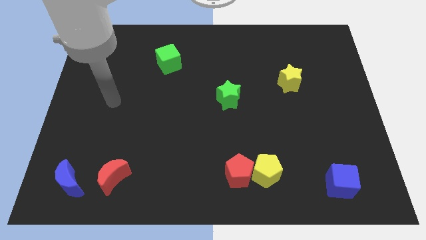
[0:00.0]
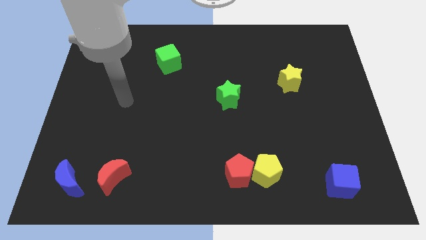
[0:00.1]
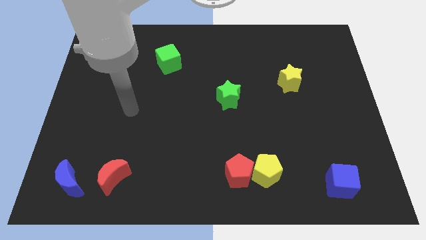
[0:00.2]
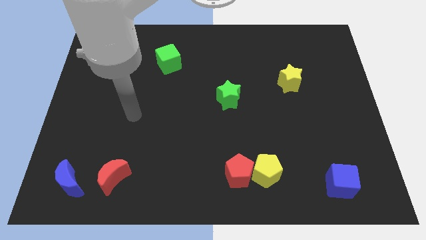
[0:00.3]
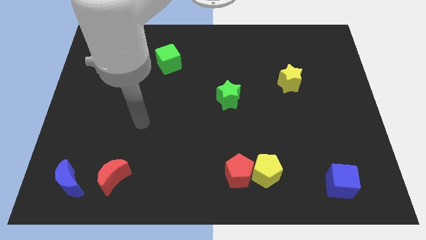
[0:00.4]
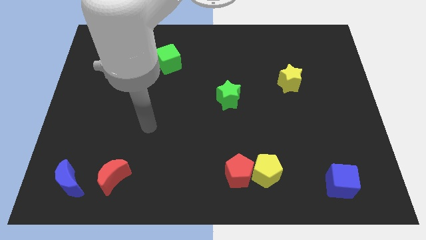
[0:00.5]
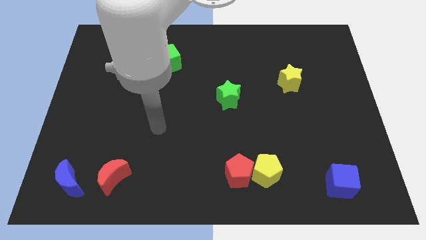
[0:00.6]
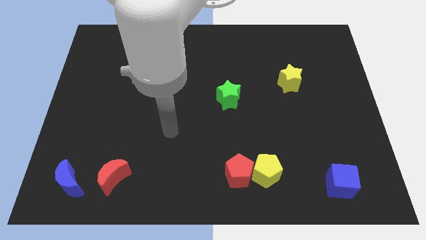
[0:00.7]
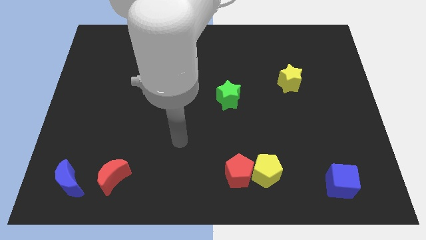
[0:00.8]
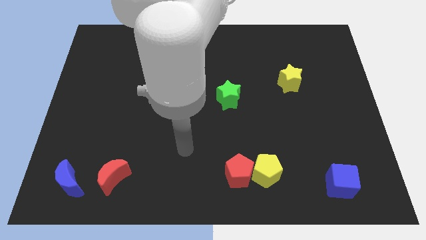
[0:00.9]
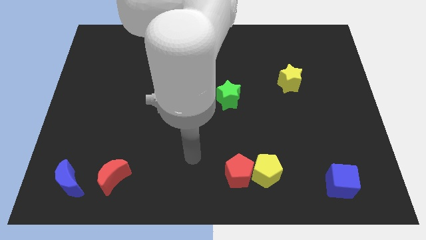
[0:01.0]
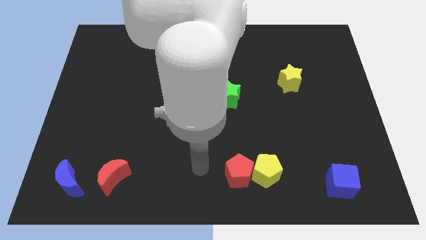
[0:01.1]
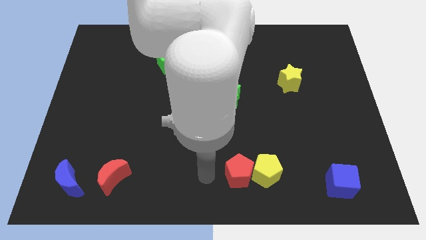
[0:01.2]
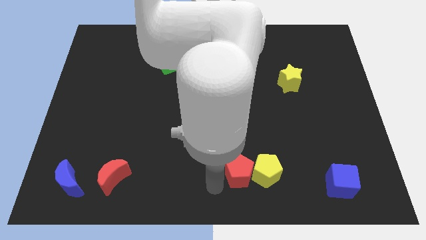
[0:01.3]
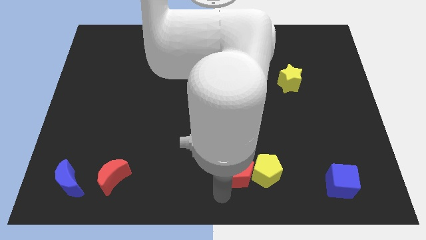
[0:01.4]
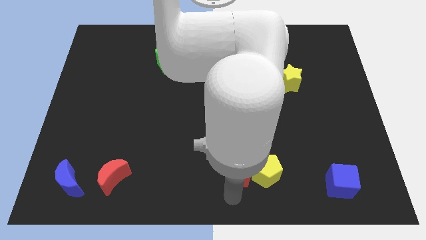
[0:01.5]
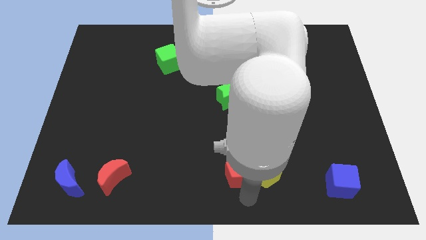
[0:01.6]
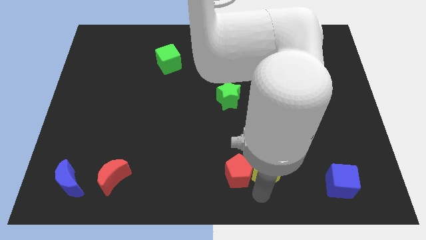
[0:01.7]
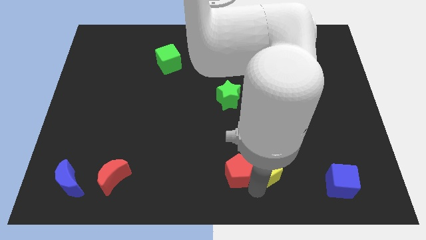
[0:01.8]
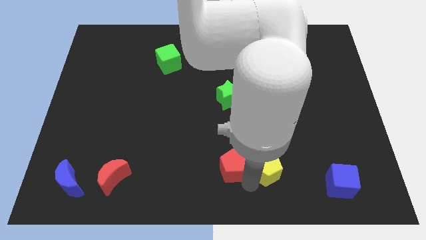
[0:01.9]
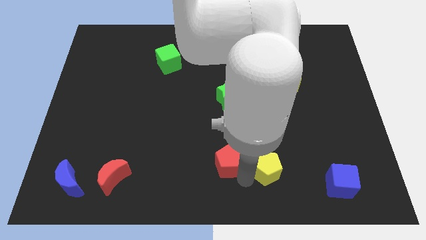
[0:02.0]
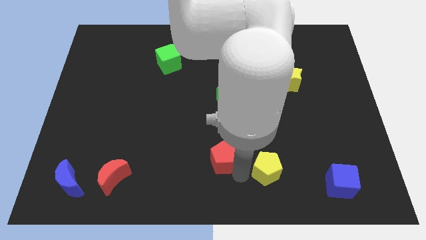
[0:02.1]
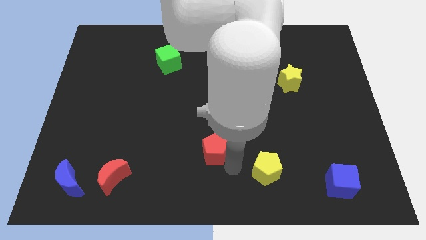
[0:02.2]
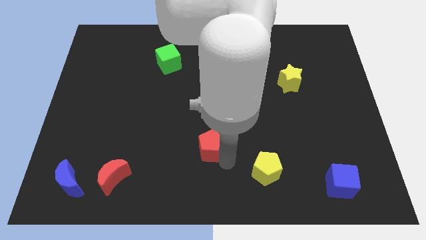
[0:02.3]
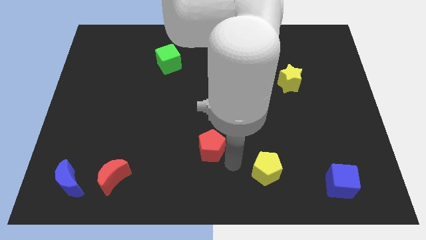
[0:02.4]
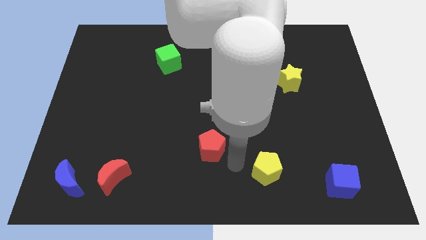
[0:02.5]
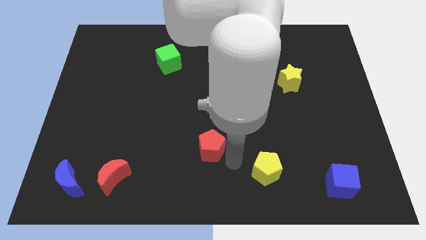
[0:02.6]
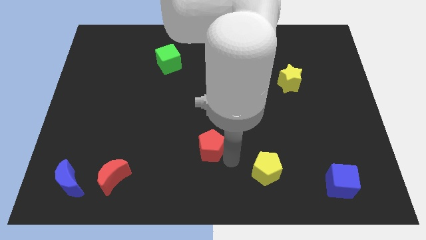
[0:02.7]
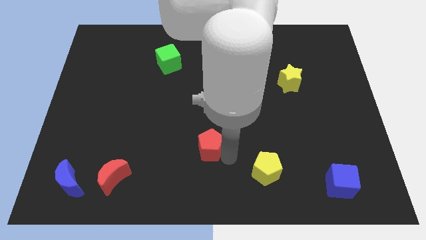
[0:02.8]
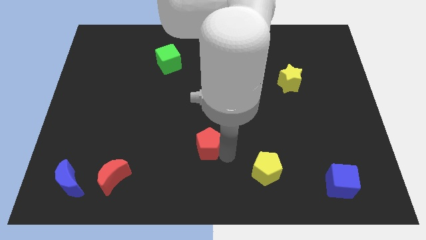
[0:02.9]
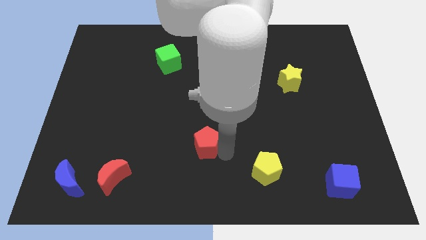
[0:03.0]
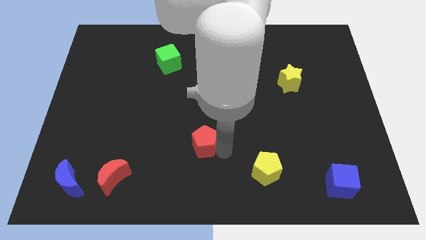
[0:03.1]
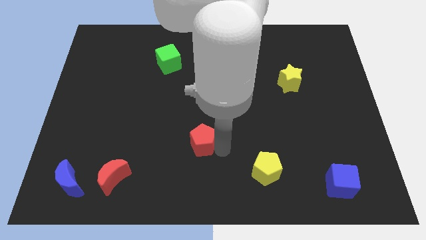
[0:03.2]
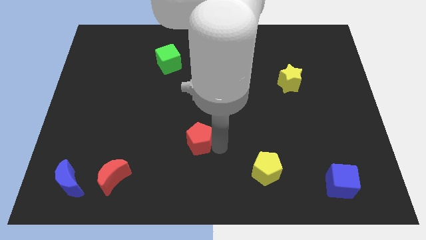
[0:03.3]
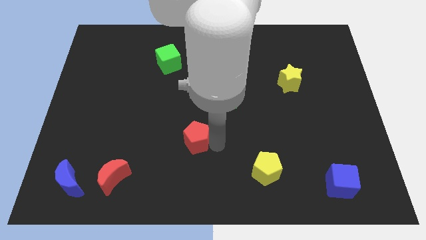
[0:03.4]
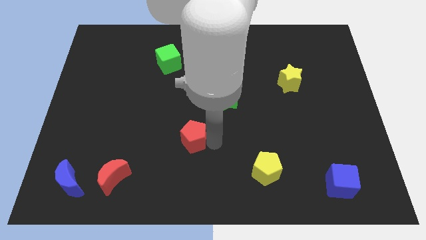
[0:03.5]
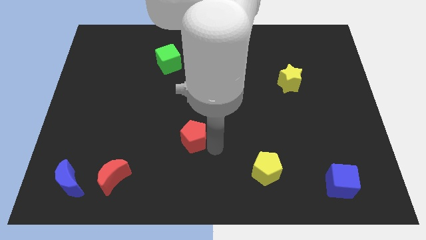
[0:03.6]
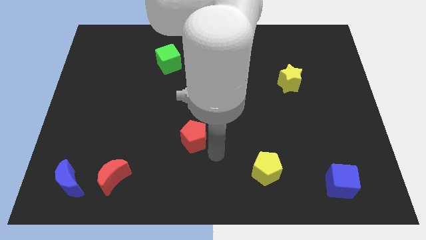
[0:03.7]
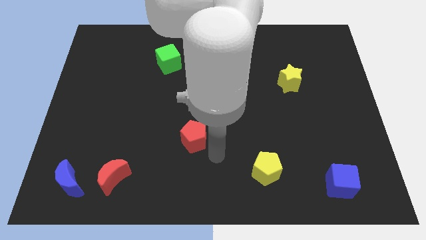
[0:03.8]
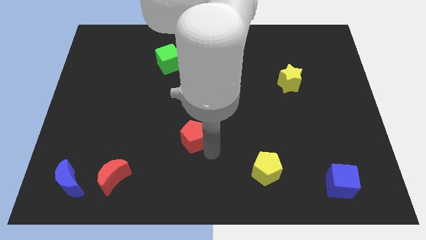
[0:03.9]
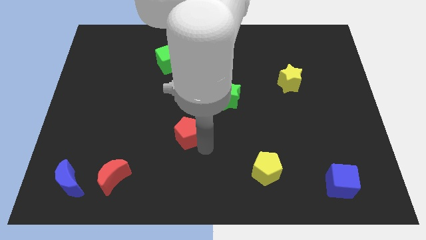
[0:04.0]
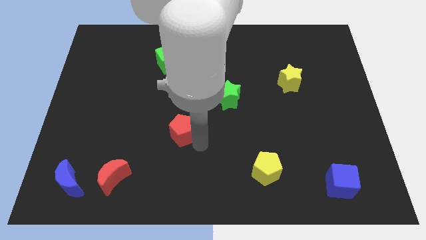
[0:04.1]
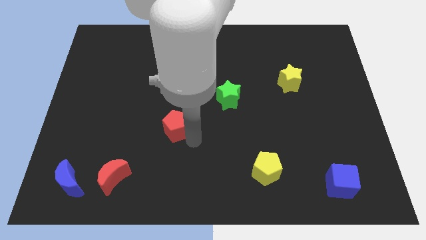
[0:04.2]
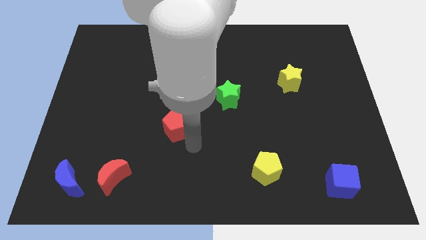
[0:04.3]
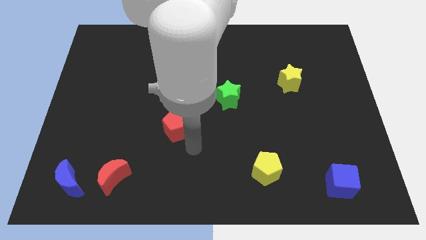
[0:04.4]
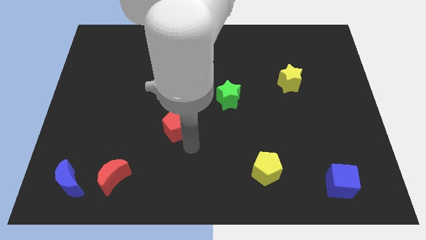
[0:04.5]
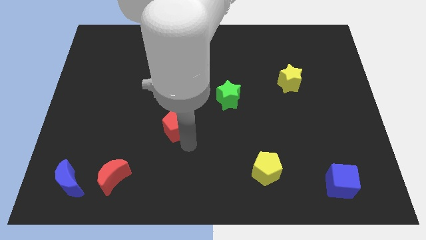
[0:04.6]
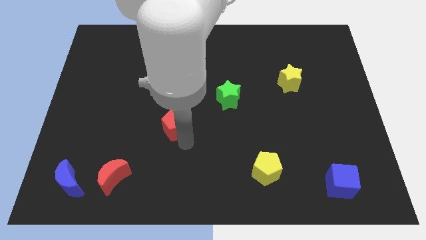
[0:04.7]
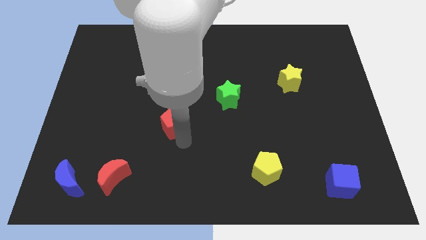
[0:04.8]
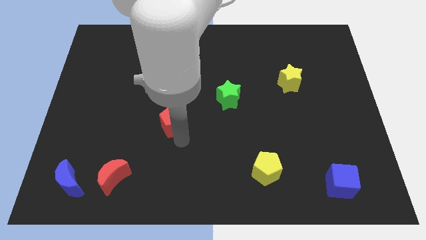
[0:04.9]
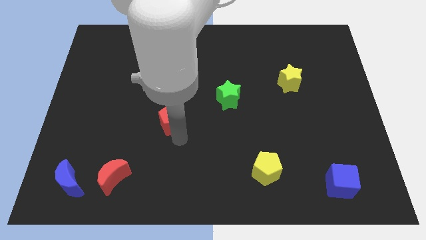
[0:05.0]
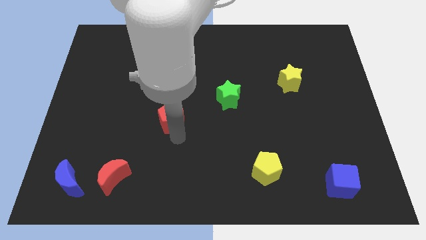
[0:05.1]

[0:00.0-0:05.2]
move the red pentagon up and left

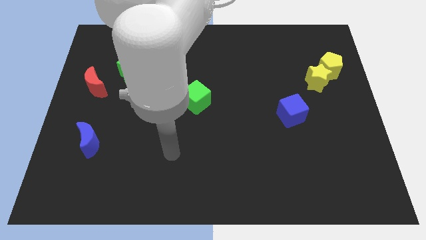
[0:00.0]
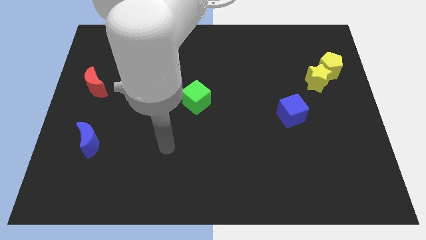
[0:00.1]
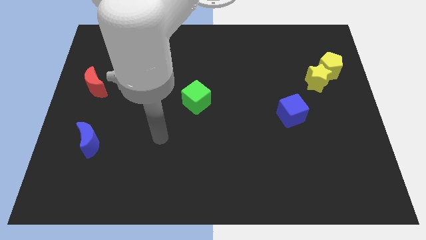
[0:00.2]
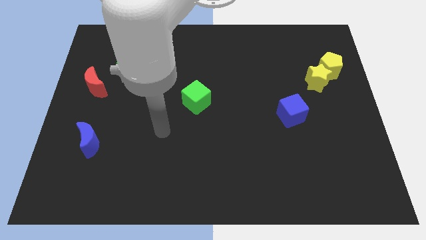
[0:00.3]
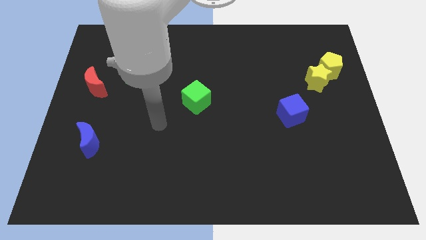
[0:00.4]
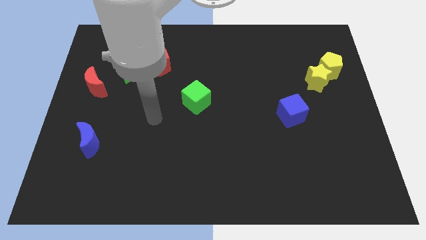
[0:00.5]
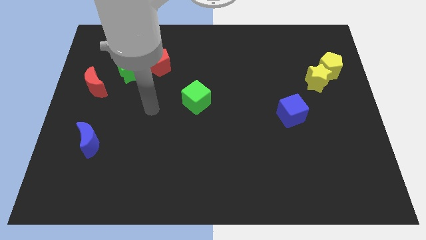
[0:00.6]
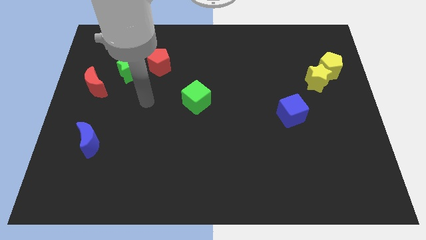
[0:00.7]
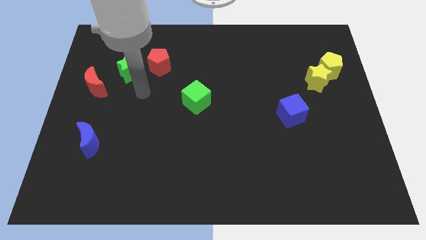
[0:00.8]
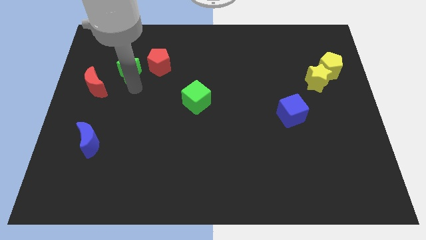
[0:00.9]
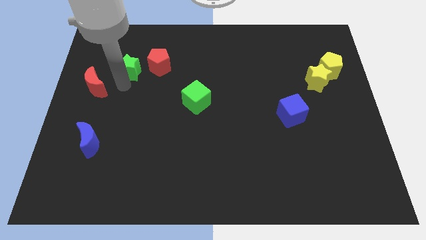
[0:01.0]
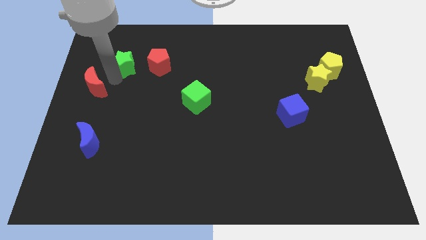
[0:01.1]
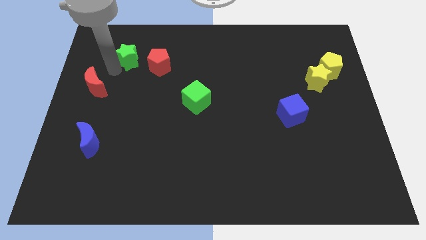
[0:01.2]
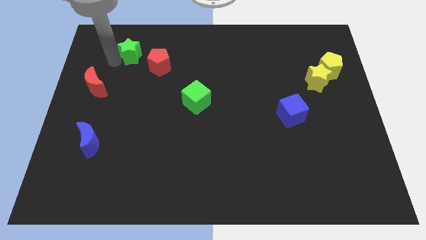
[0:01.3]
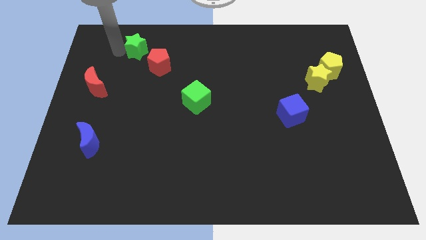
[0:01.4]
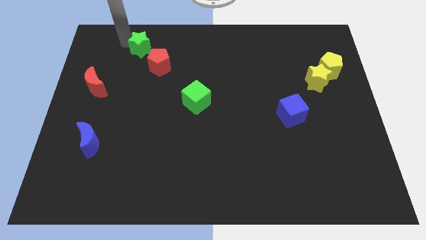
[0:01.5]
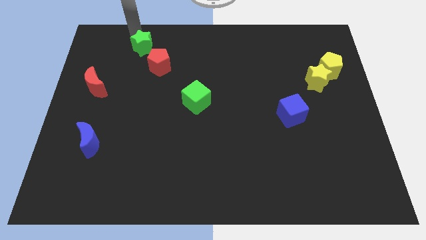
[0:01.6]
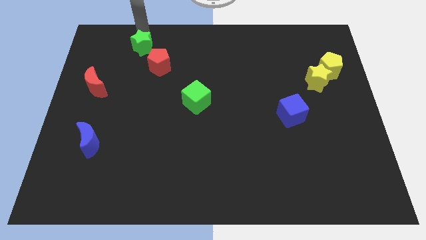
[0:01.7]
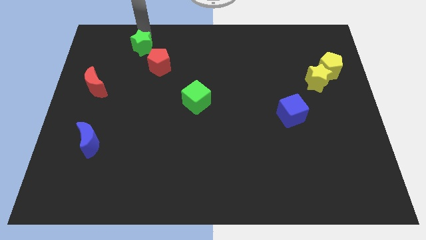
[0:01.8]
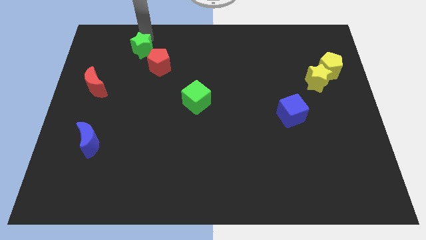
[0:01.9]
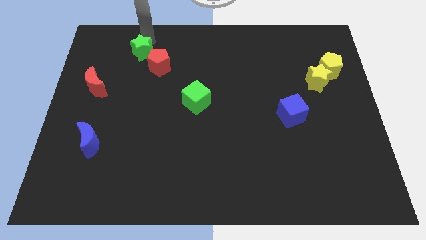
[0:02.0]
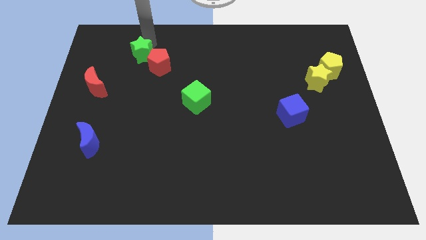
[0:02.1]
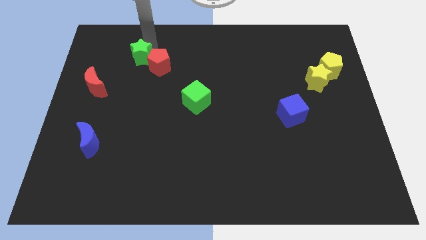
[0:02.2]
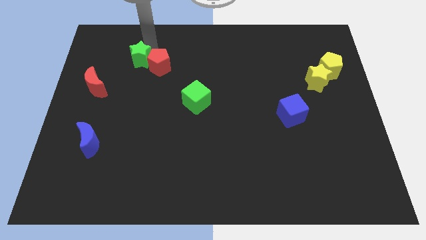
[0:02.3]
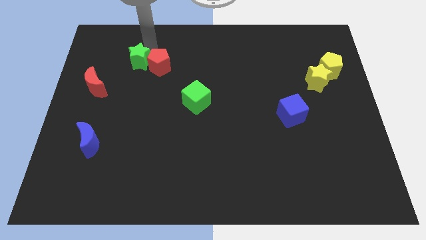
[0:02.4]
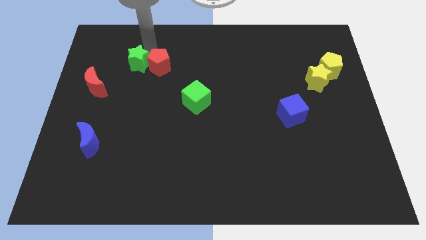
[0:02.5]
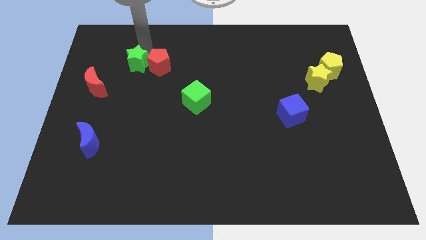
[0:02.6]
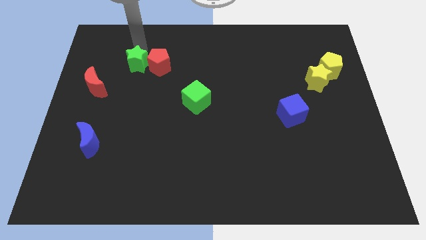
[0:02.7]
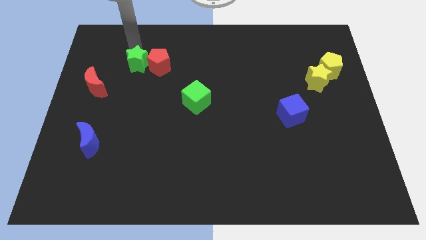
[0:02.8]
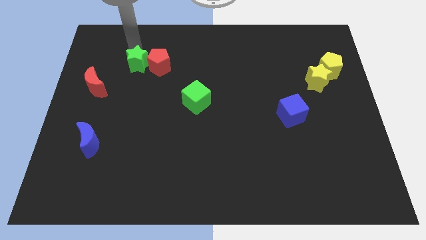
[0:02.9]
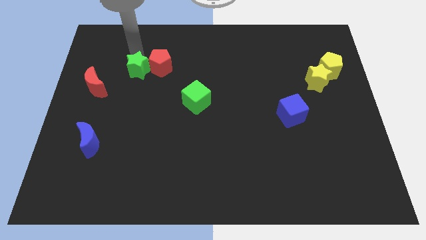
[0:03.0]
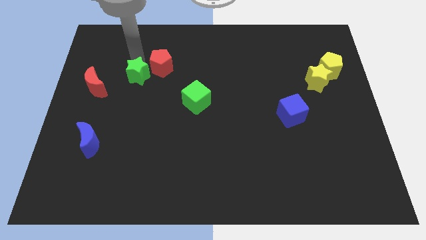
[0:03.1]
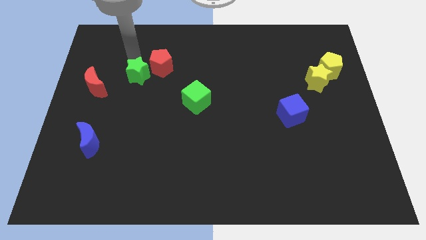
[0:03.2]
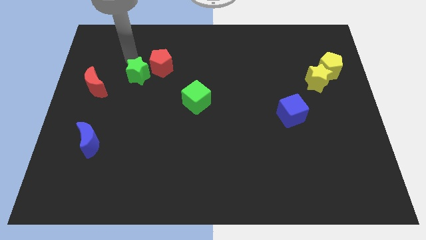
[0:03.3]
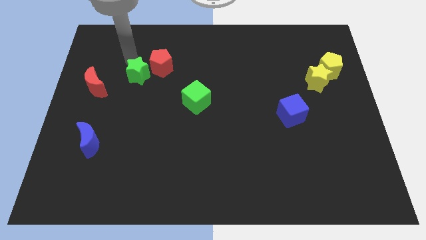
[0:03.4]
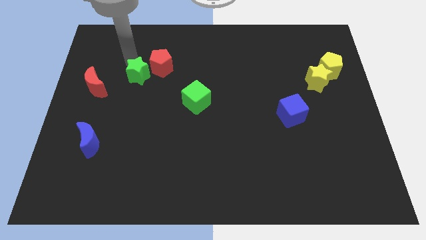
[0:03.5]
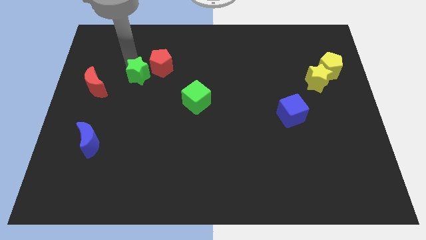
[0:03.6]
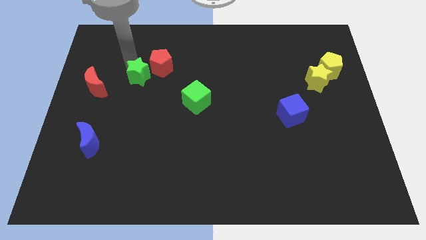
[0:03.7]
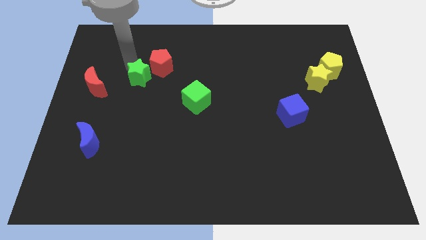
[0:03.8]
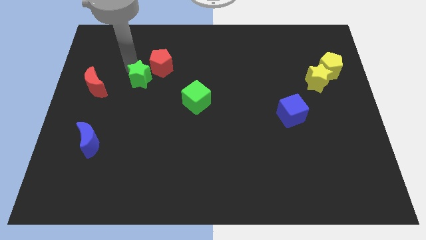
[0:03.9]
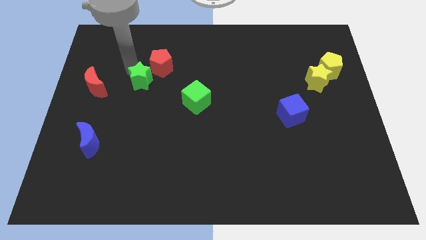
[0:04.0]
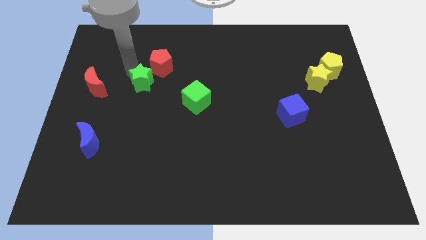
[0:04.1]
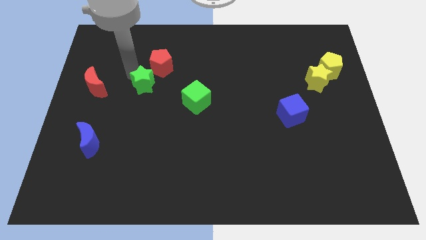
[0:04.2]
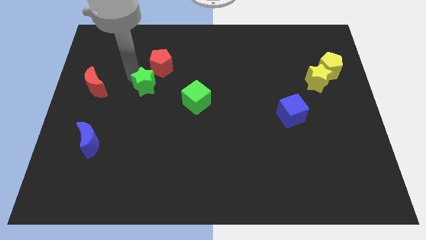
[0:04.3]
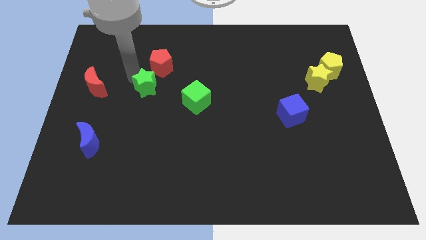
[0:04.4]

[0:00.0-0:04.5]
push the green star down and to the right diagonally a little
